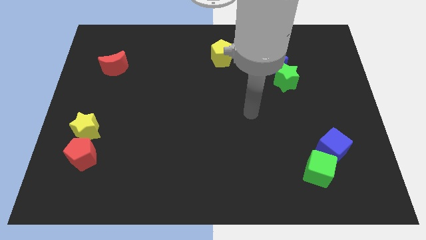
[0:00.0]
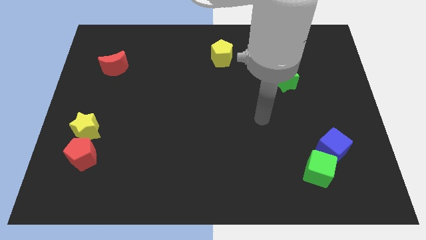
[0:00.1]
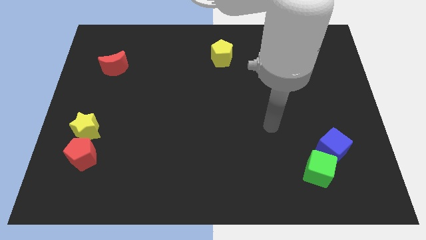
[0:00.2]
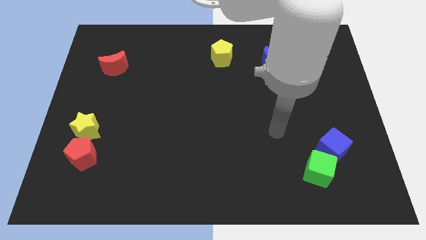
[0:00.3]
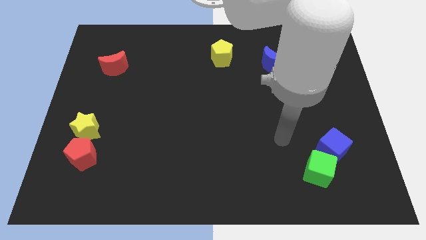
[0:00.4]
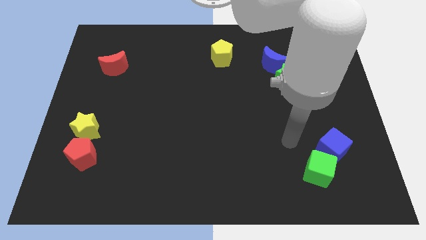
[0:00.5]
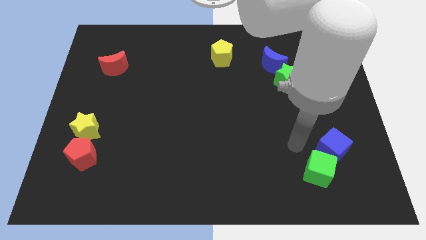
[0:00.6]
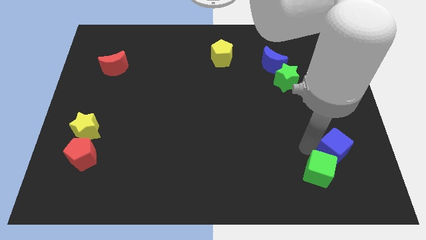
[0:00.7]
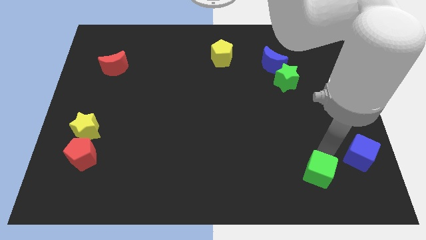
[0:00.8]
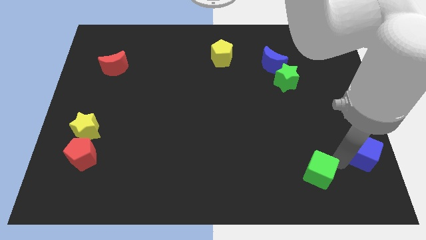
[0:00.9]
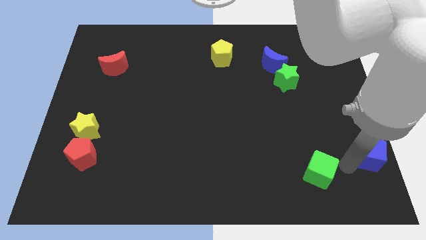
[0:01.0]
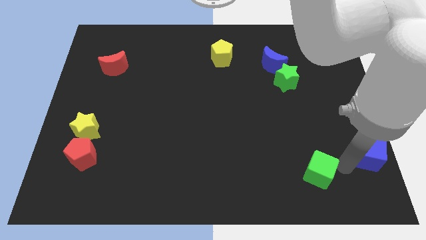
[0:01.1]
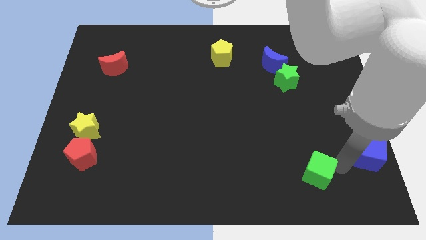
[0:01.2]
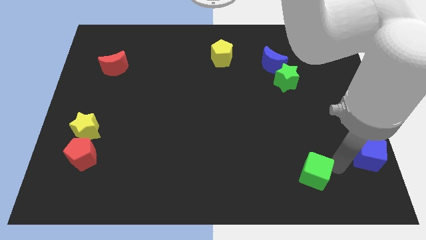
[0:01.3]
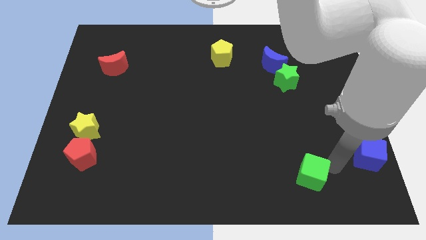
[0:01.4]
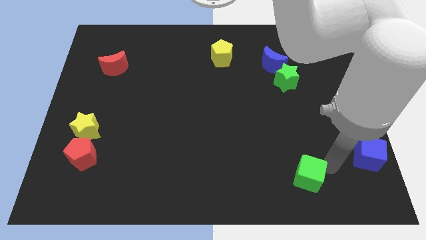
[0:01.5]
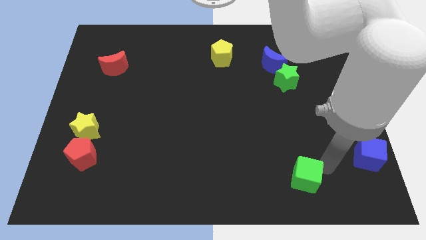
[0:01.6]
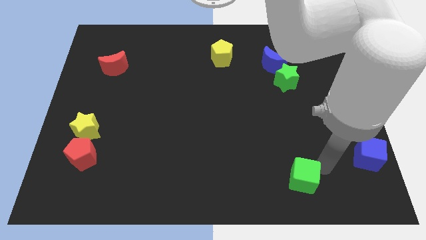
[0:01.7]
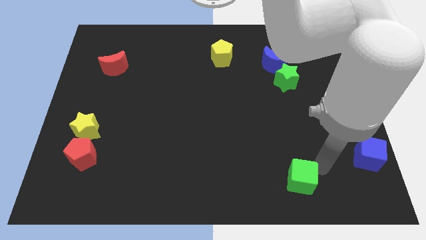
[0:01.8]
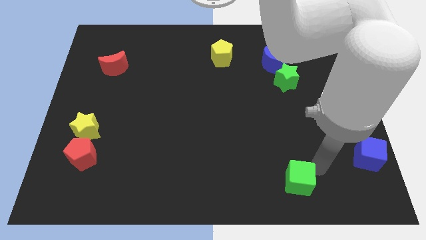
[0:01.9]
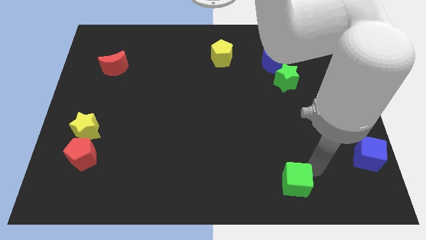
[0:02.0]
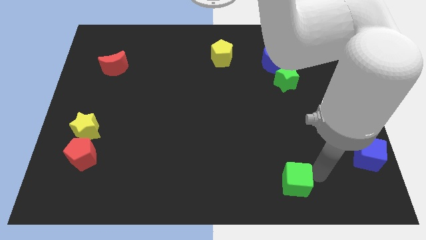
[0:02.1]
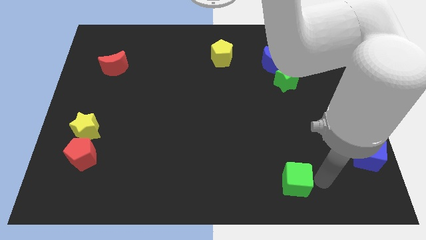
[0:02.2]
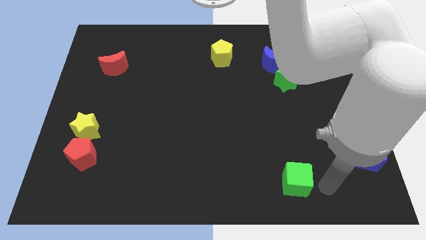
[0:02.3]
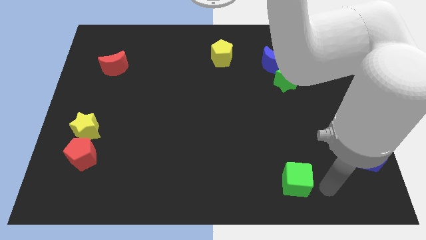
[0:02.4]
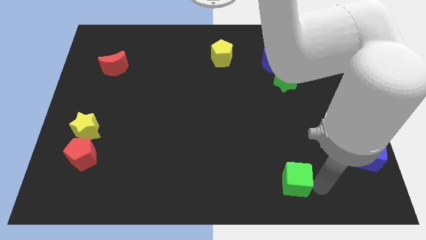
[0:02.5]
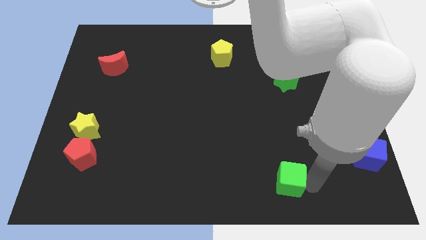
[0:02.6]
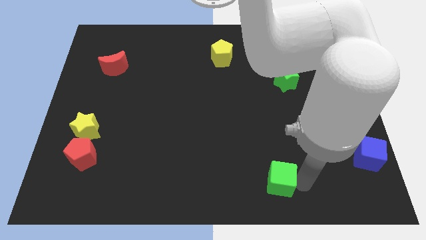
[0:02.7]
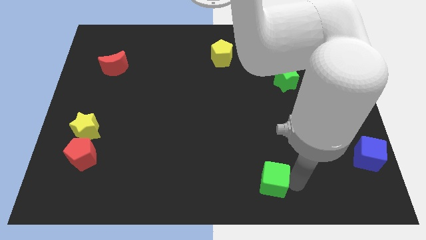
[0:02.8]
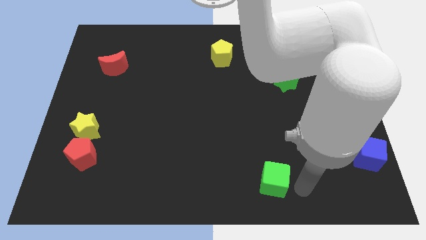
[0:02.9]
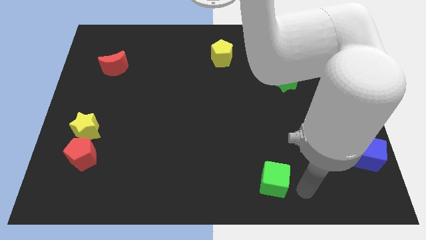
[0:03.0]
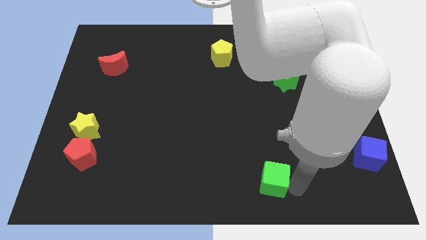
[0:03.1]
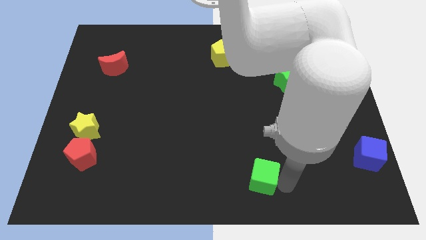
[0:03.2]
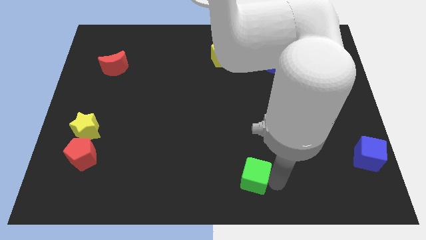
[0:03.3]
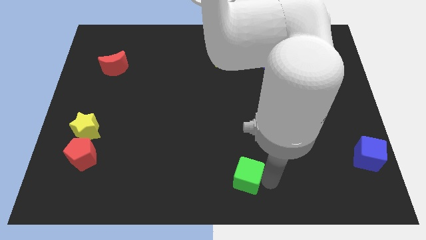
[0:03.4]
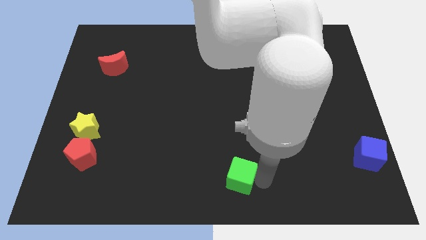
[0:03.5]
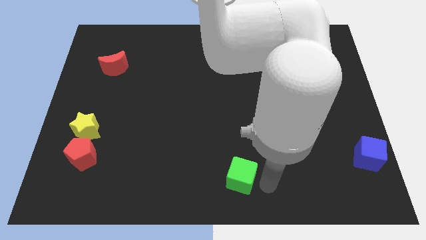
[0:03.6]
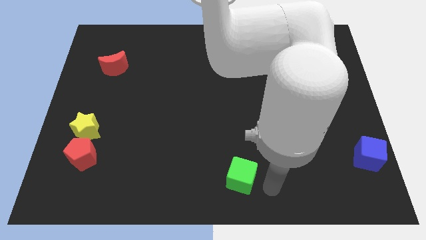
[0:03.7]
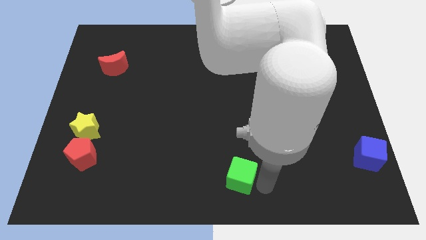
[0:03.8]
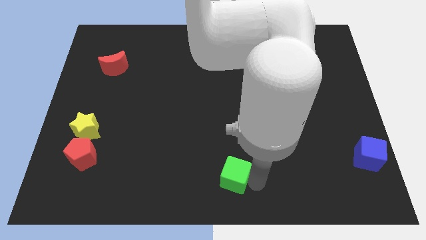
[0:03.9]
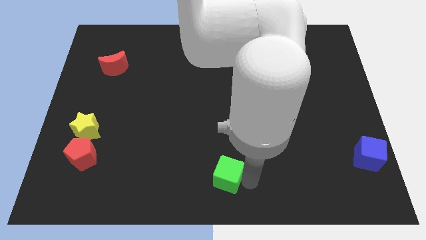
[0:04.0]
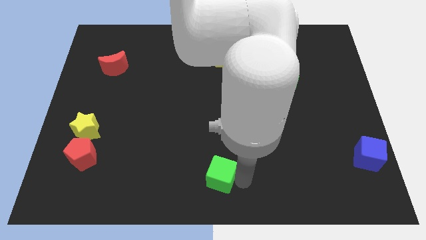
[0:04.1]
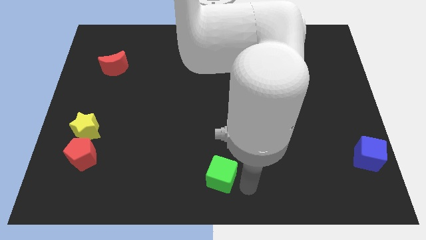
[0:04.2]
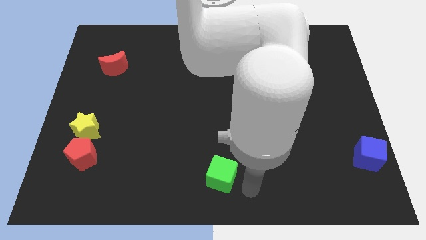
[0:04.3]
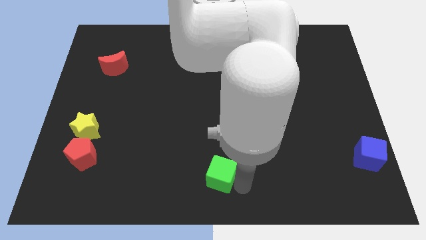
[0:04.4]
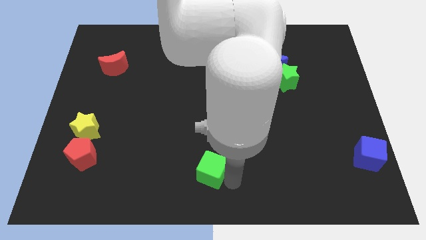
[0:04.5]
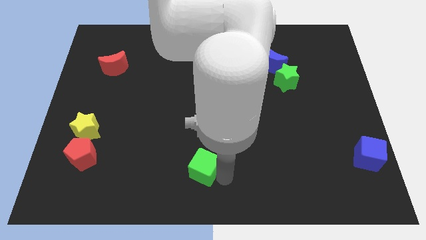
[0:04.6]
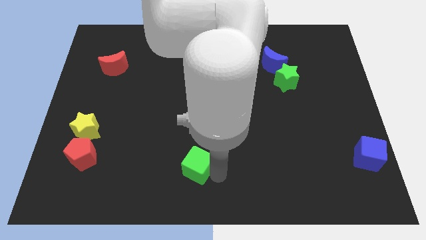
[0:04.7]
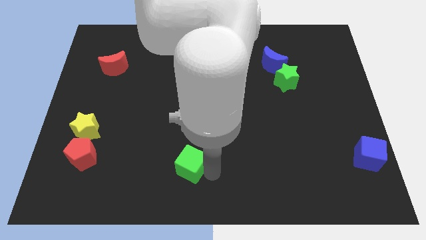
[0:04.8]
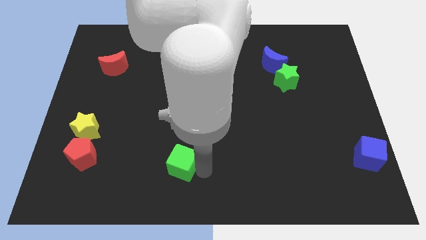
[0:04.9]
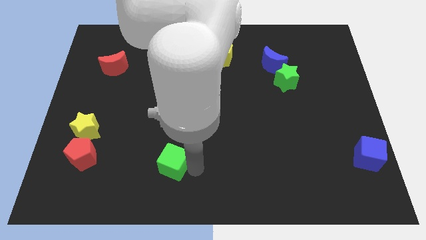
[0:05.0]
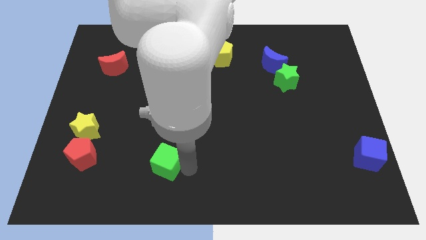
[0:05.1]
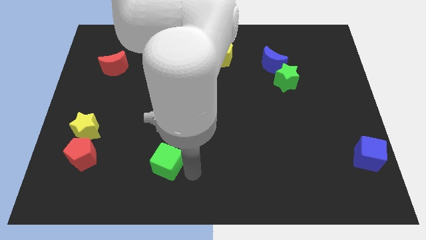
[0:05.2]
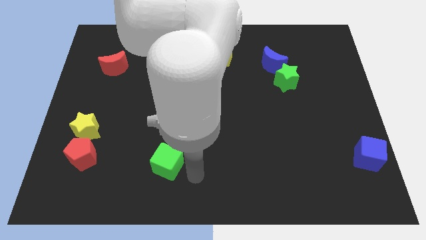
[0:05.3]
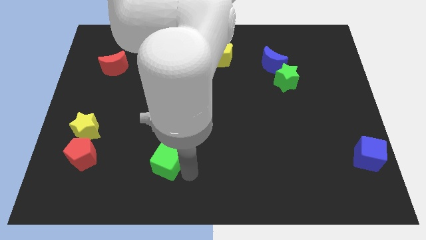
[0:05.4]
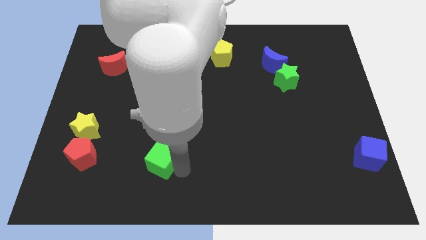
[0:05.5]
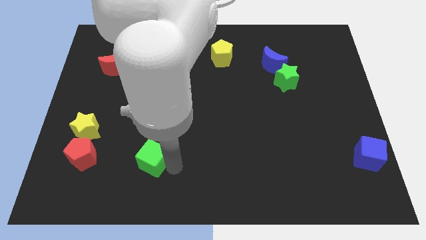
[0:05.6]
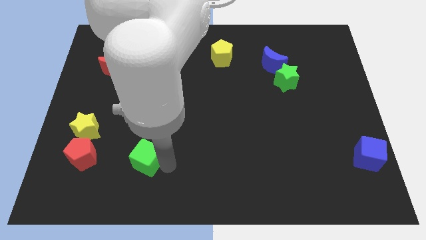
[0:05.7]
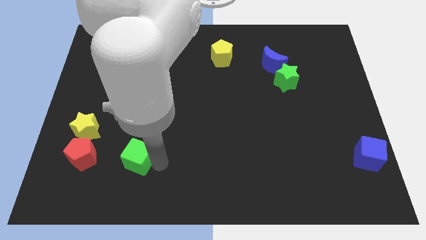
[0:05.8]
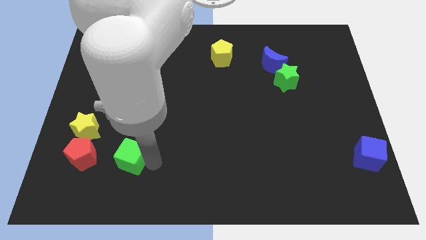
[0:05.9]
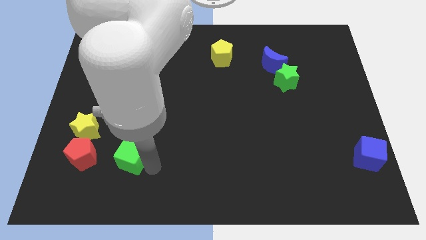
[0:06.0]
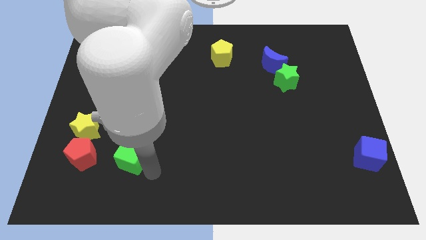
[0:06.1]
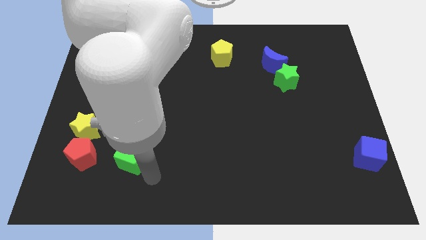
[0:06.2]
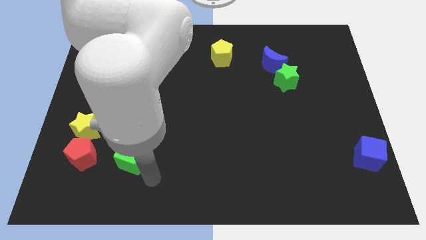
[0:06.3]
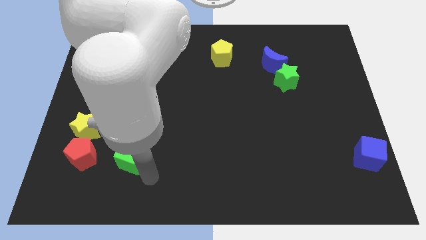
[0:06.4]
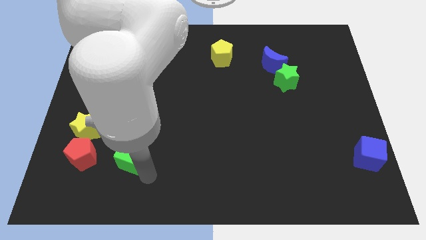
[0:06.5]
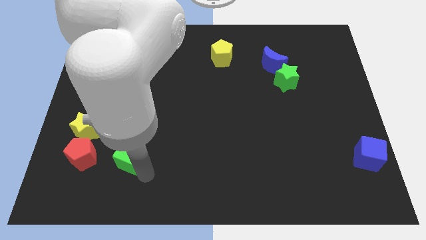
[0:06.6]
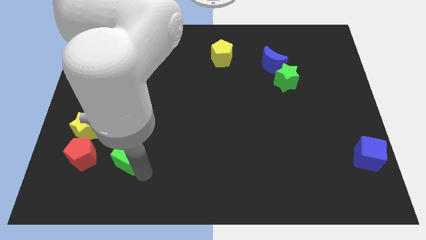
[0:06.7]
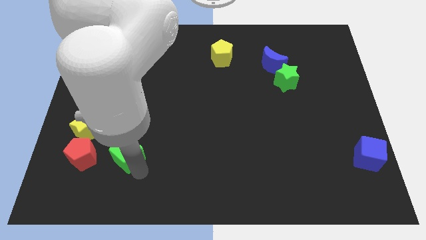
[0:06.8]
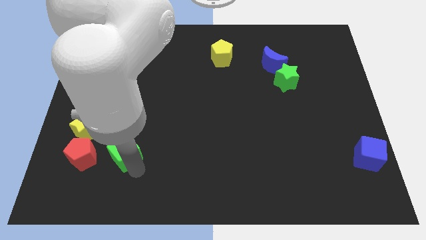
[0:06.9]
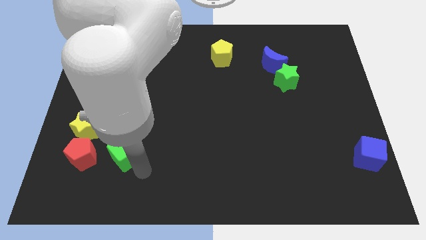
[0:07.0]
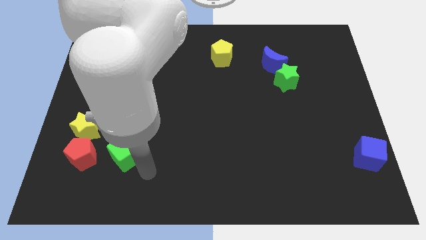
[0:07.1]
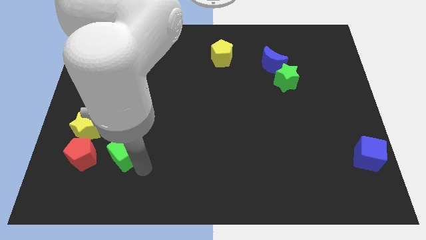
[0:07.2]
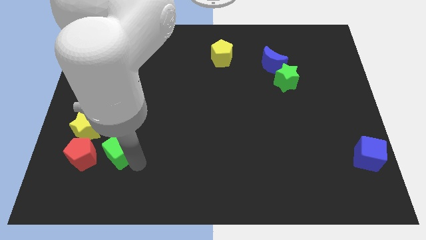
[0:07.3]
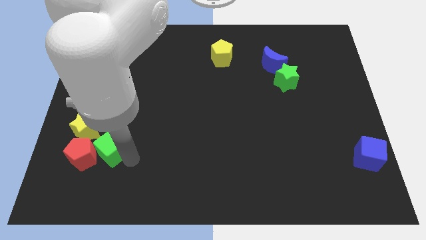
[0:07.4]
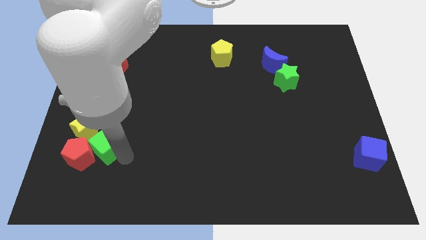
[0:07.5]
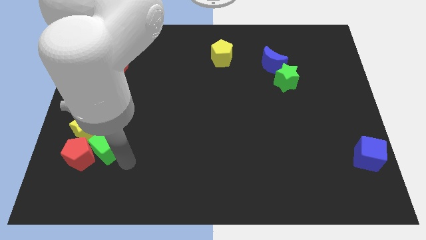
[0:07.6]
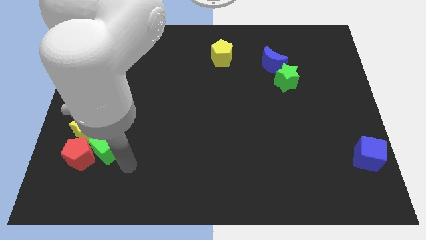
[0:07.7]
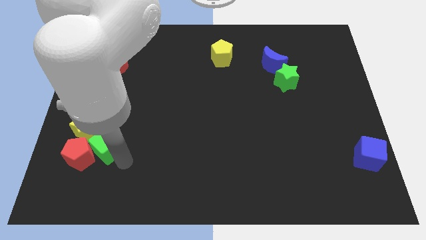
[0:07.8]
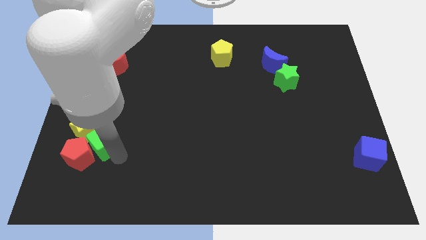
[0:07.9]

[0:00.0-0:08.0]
slide the green cube to the yellow star
